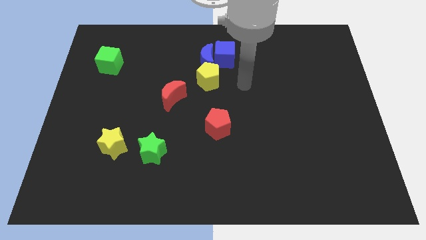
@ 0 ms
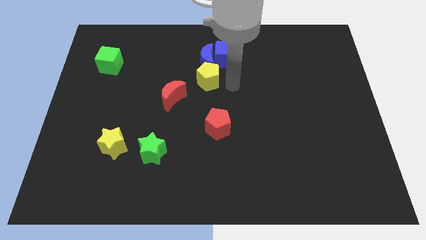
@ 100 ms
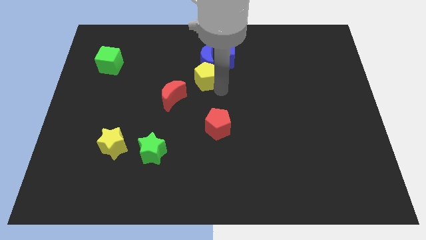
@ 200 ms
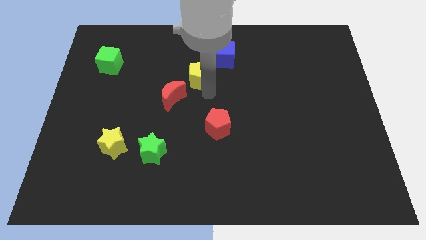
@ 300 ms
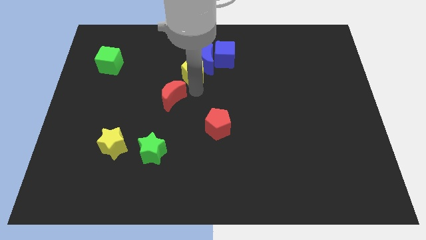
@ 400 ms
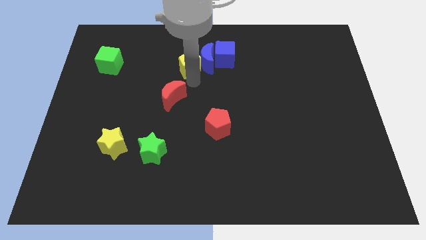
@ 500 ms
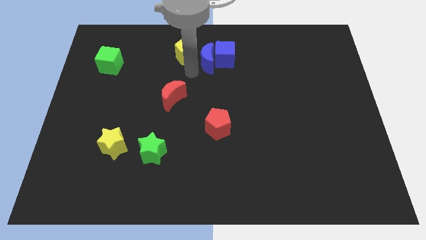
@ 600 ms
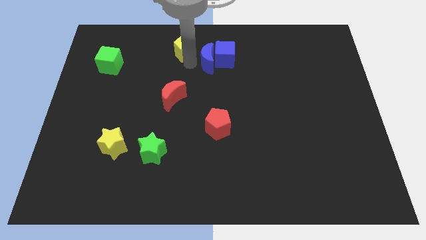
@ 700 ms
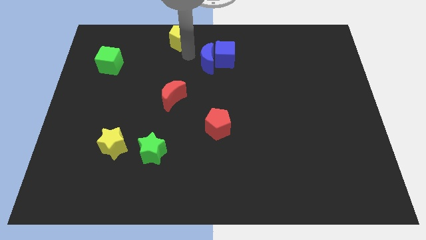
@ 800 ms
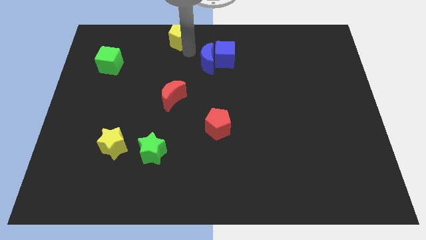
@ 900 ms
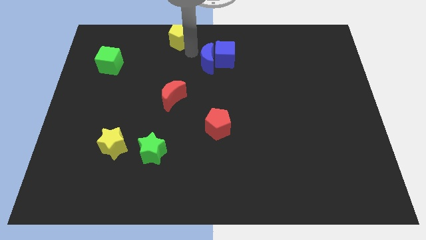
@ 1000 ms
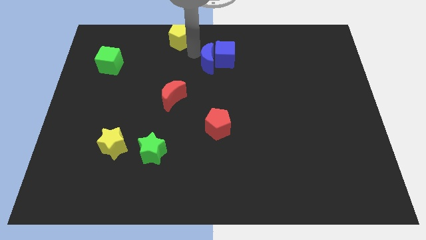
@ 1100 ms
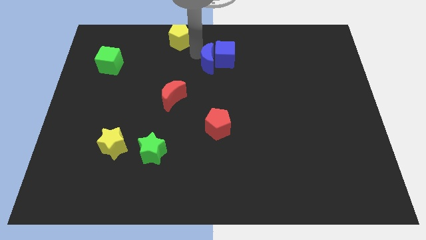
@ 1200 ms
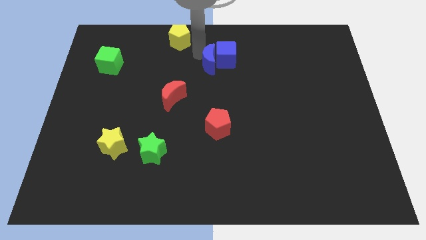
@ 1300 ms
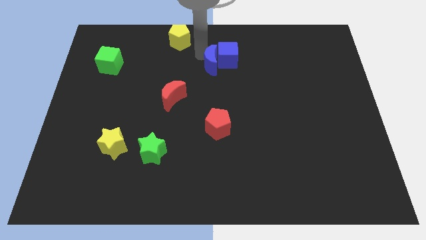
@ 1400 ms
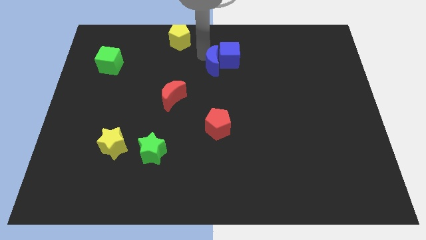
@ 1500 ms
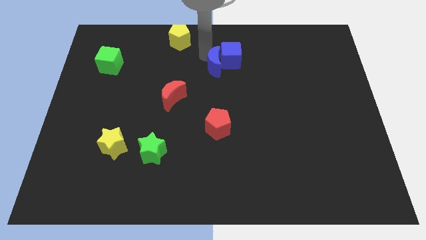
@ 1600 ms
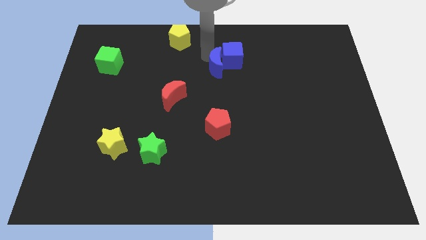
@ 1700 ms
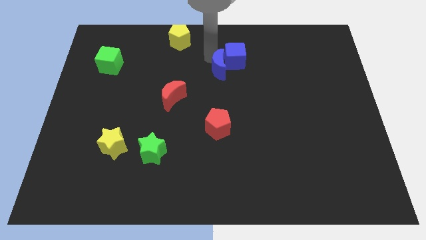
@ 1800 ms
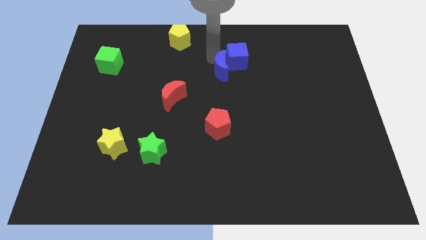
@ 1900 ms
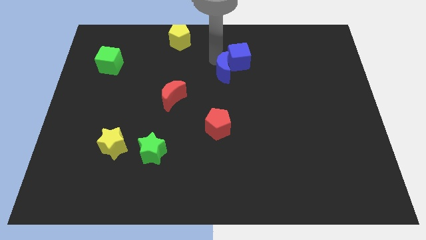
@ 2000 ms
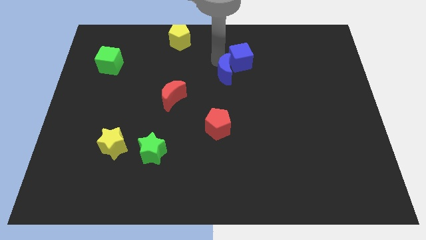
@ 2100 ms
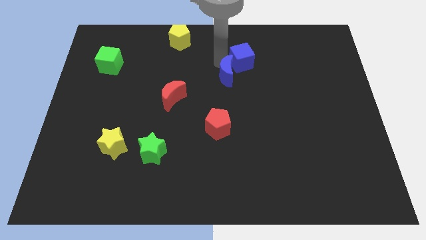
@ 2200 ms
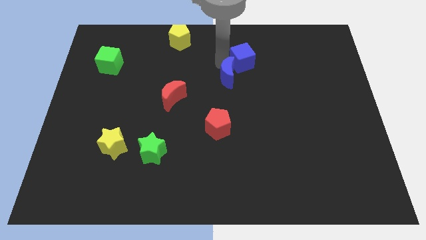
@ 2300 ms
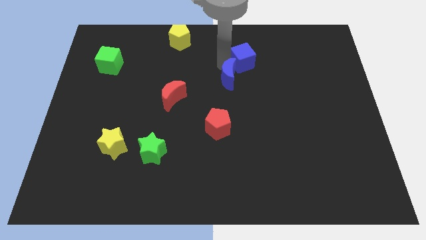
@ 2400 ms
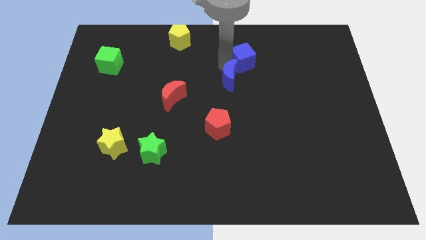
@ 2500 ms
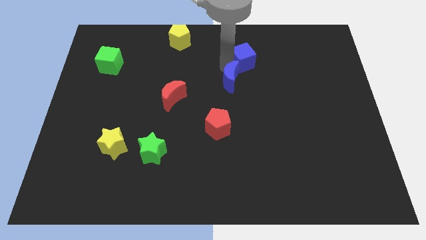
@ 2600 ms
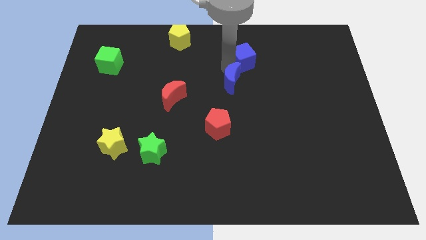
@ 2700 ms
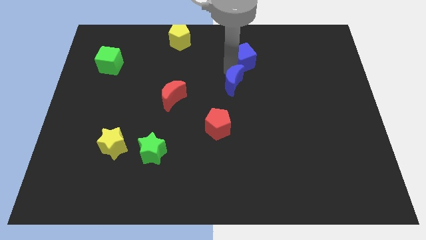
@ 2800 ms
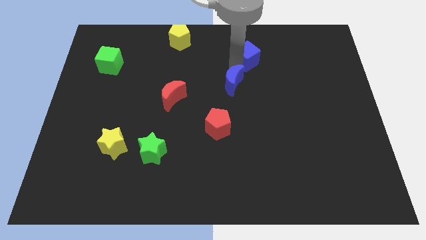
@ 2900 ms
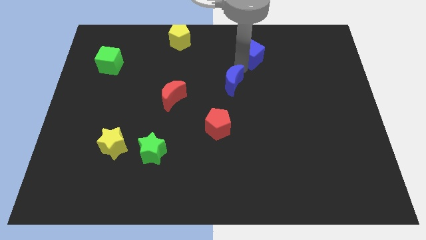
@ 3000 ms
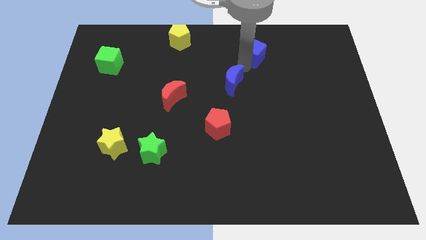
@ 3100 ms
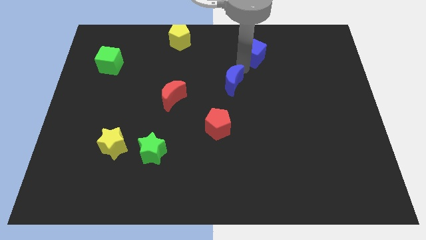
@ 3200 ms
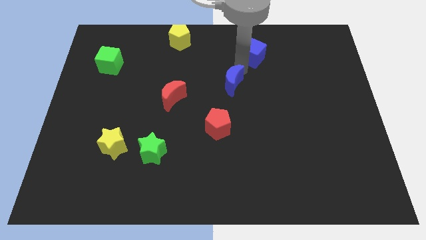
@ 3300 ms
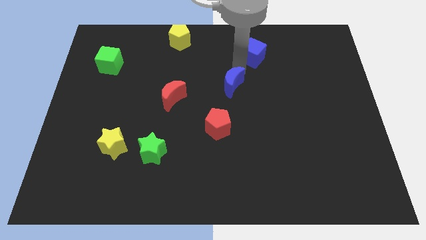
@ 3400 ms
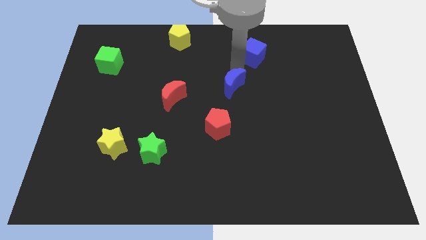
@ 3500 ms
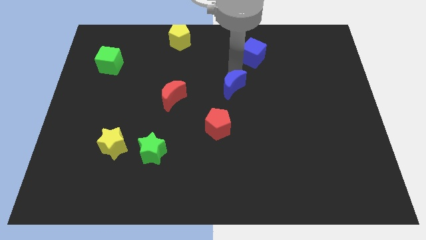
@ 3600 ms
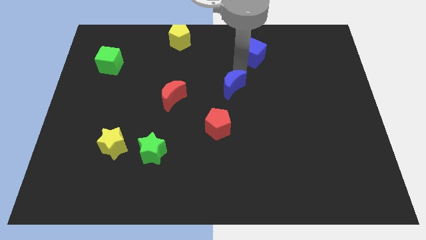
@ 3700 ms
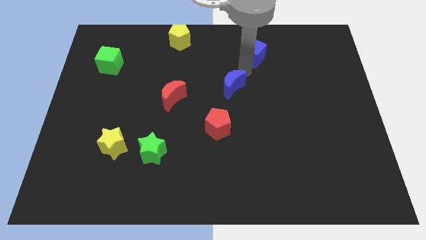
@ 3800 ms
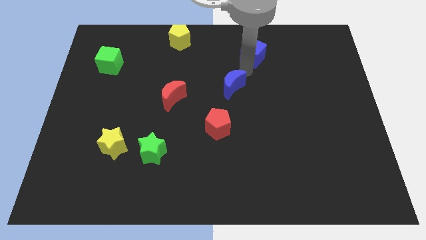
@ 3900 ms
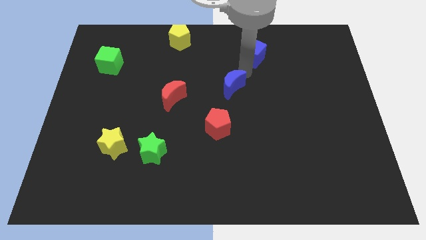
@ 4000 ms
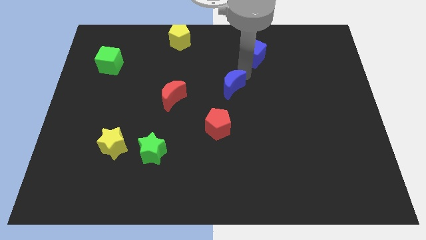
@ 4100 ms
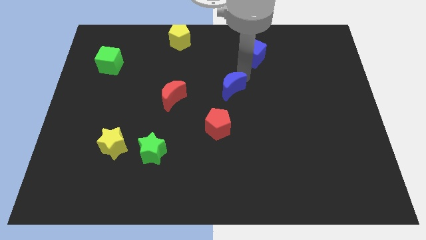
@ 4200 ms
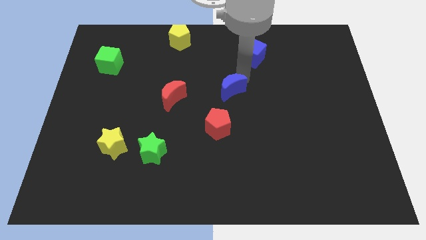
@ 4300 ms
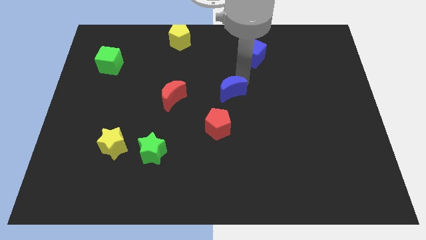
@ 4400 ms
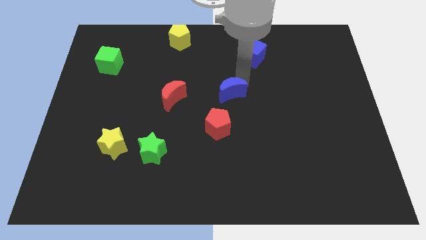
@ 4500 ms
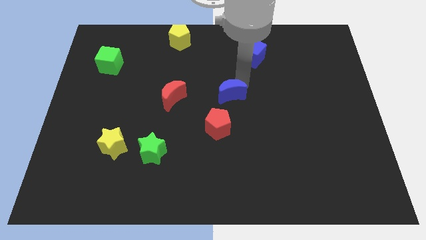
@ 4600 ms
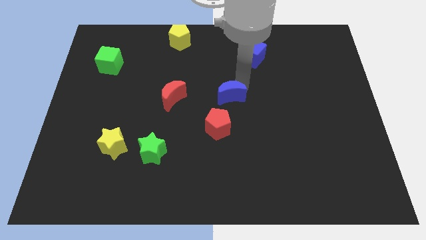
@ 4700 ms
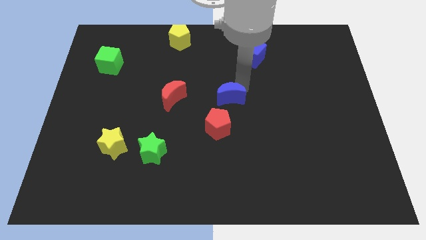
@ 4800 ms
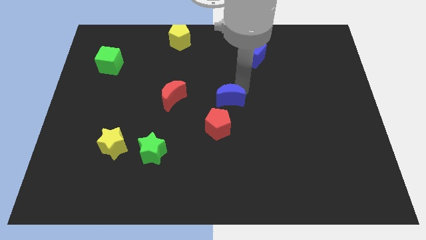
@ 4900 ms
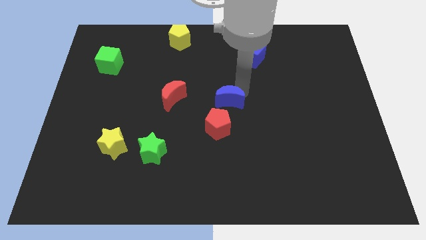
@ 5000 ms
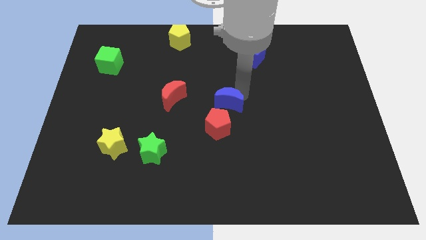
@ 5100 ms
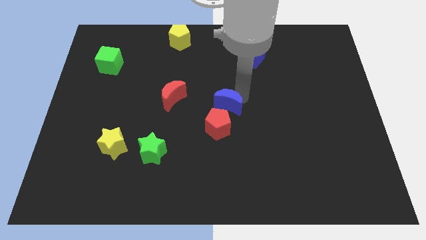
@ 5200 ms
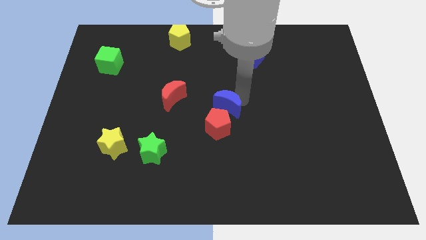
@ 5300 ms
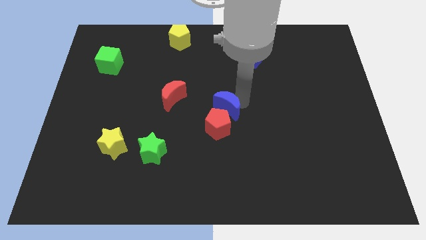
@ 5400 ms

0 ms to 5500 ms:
push the blue moon next to the red pentagon

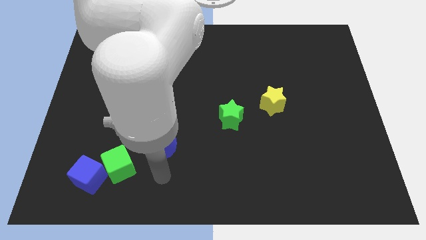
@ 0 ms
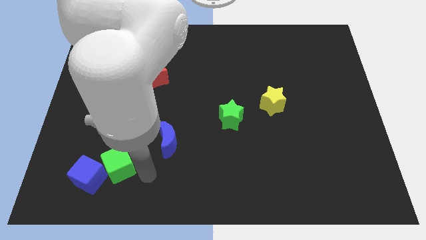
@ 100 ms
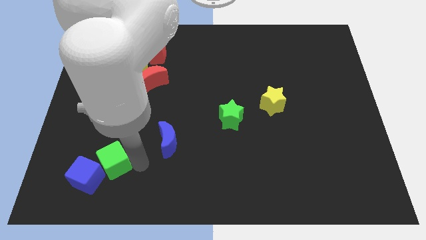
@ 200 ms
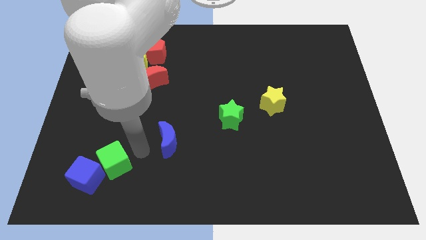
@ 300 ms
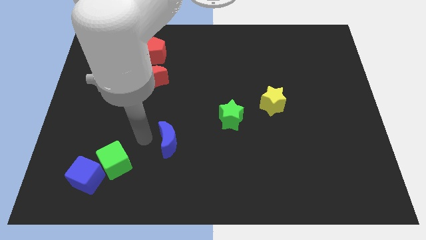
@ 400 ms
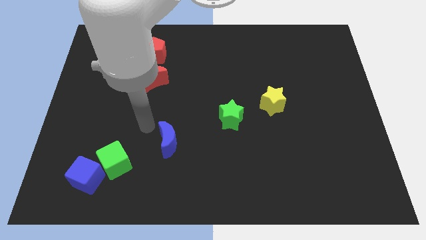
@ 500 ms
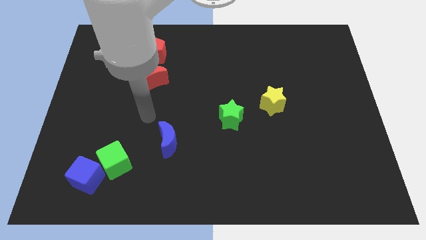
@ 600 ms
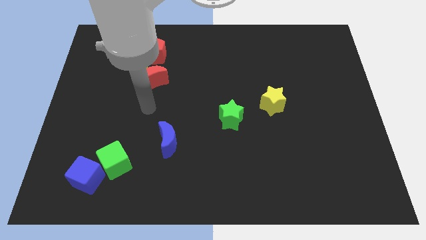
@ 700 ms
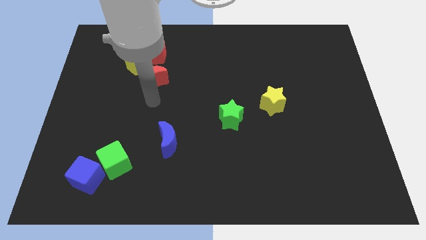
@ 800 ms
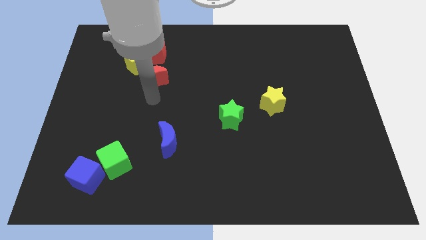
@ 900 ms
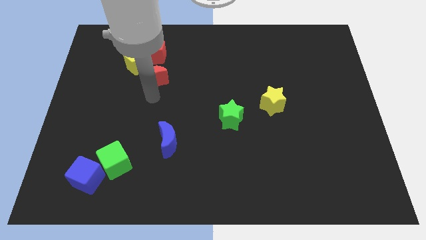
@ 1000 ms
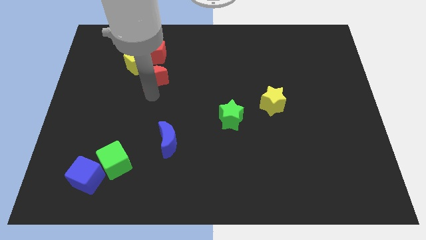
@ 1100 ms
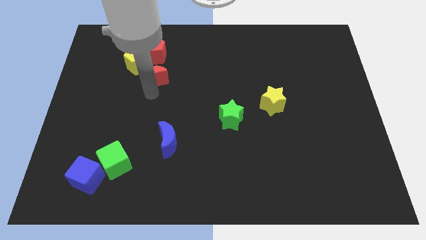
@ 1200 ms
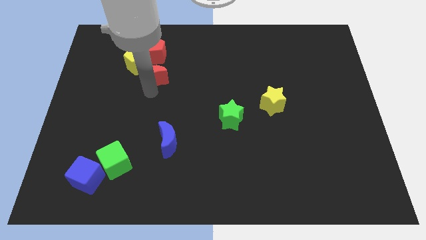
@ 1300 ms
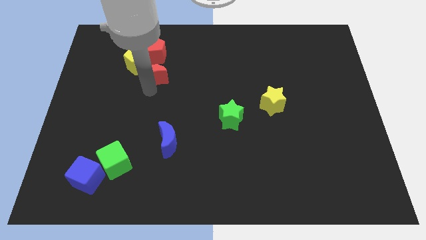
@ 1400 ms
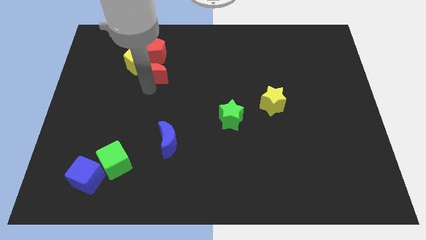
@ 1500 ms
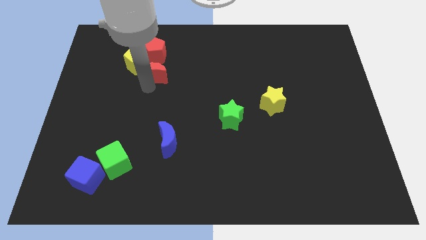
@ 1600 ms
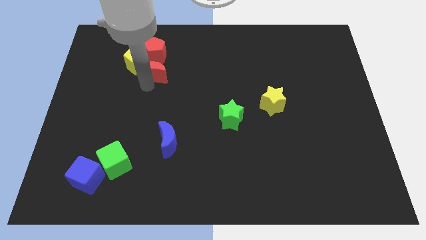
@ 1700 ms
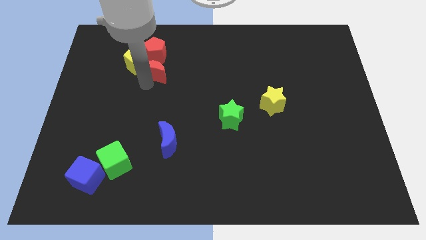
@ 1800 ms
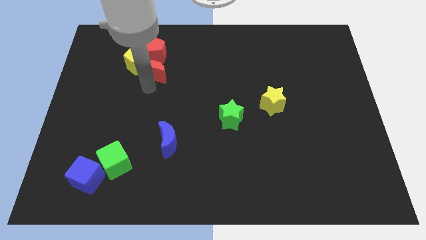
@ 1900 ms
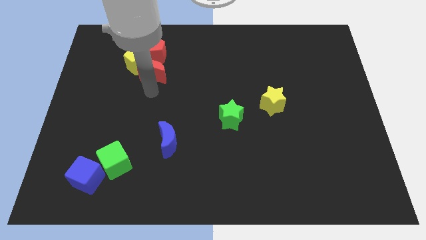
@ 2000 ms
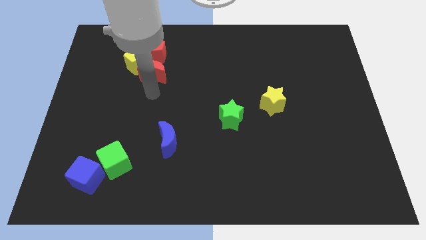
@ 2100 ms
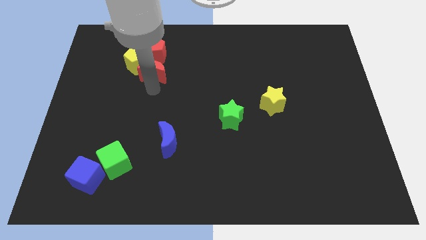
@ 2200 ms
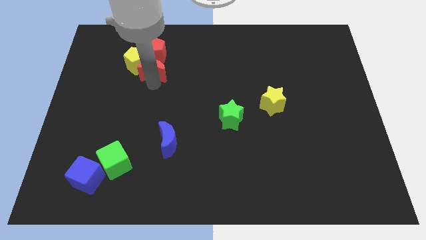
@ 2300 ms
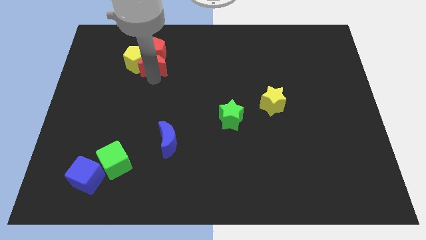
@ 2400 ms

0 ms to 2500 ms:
put the red moon towards the red pentagon
